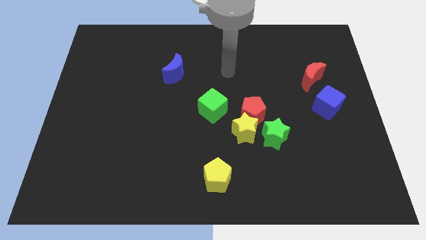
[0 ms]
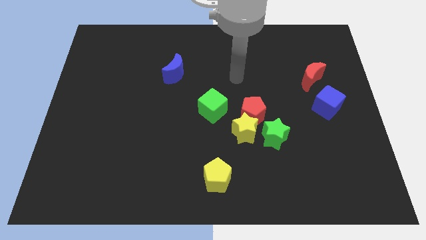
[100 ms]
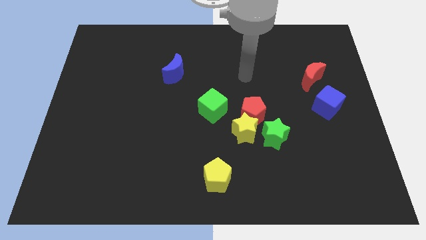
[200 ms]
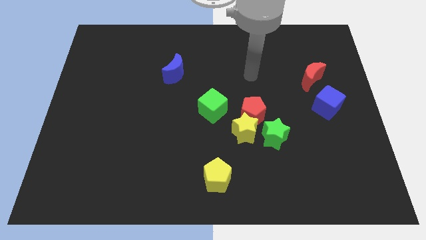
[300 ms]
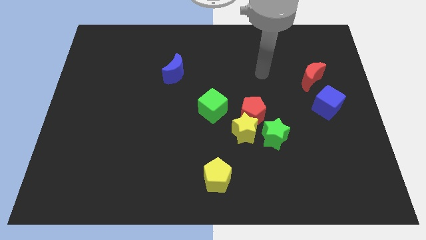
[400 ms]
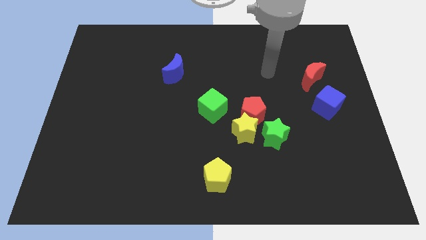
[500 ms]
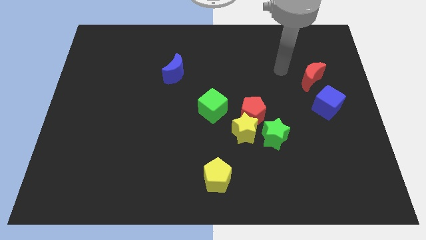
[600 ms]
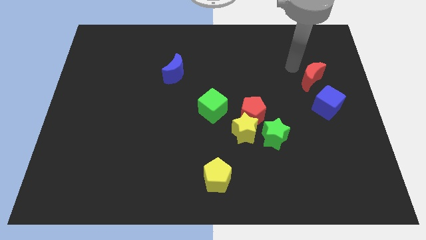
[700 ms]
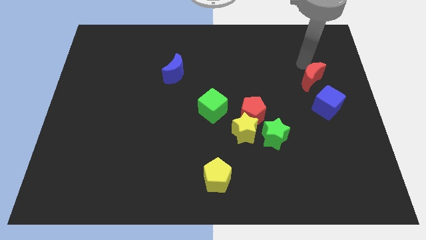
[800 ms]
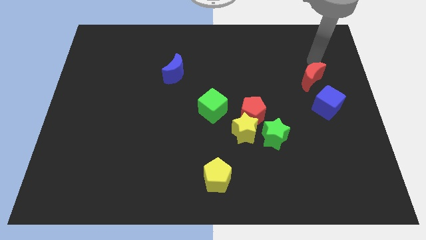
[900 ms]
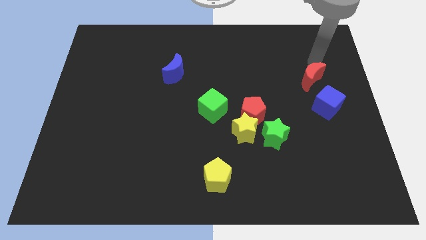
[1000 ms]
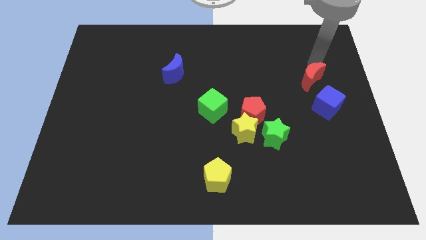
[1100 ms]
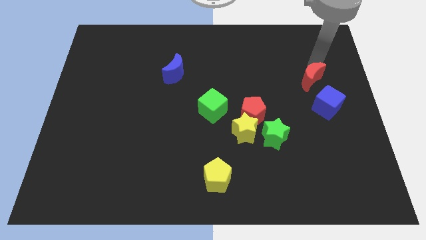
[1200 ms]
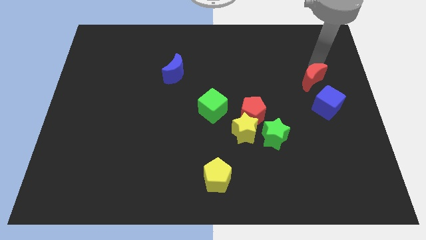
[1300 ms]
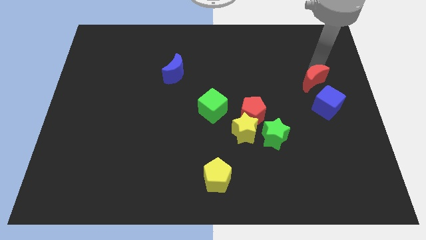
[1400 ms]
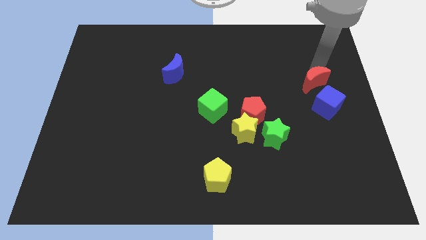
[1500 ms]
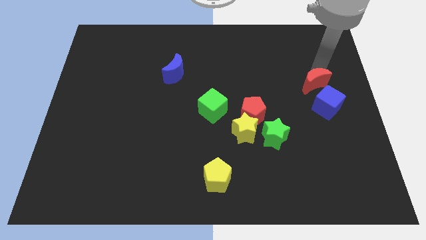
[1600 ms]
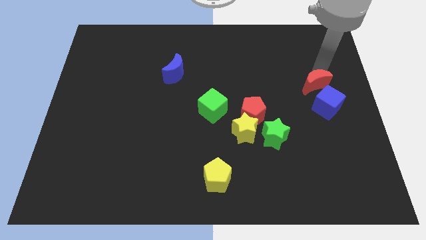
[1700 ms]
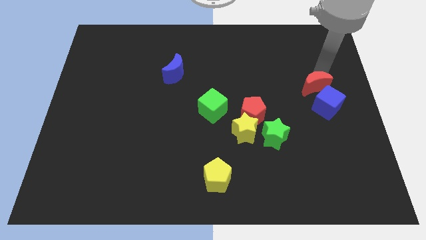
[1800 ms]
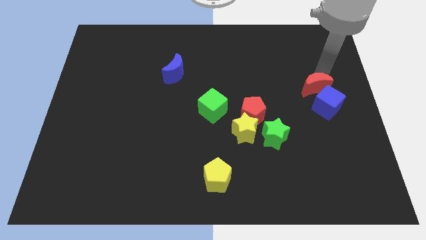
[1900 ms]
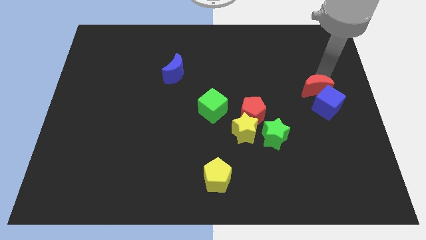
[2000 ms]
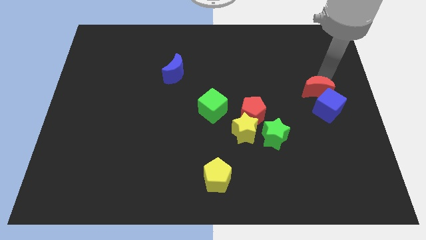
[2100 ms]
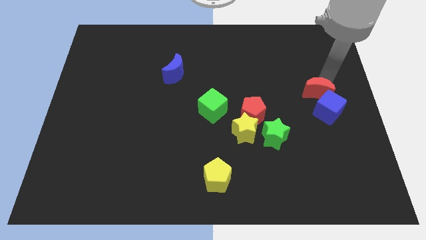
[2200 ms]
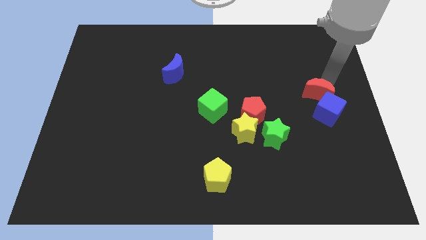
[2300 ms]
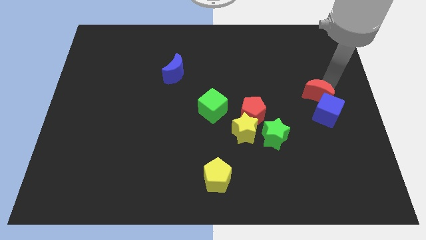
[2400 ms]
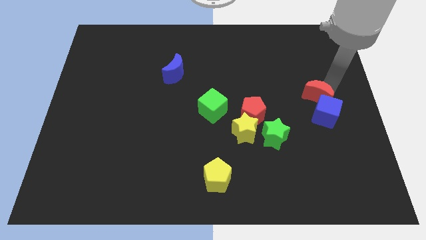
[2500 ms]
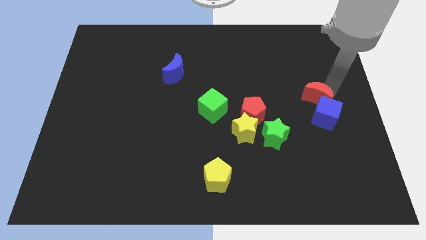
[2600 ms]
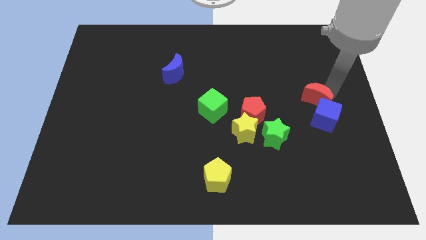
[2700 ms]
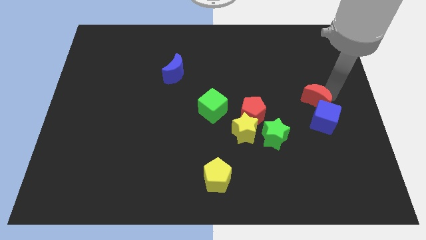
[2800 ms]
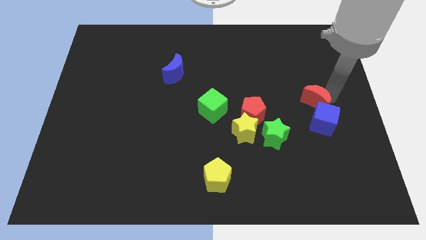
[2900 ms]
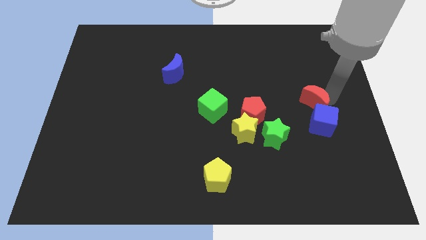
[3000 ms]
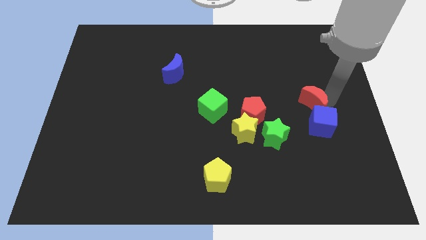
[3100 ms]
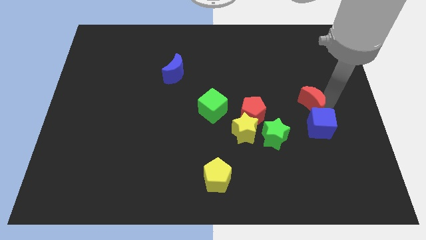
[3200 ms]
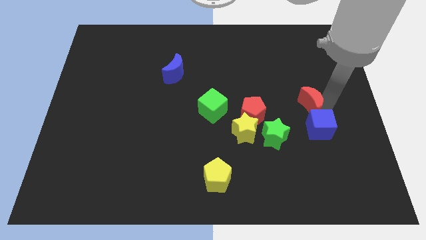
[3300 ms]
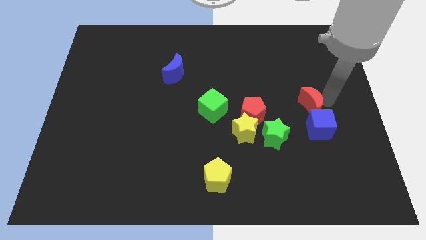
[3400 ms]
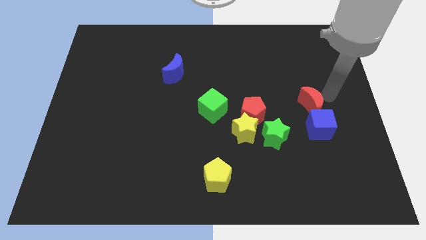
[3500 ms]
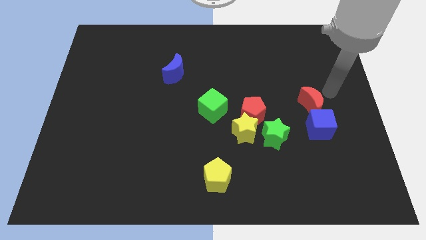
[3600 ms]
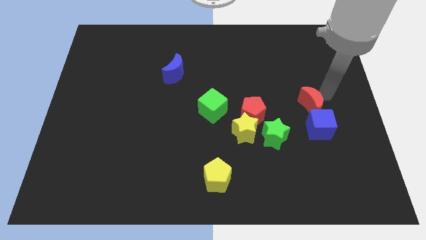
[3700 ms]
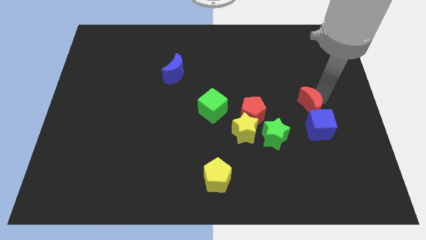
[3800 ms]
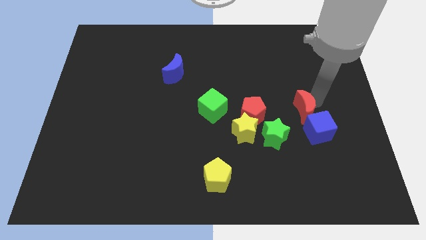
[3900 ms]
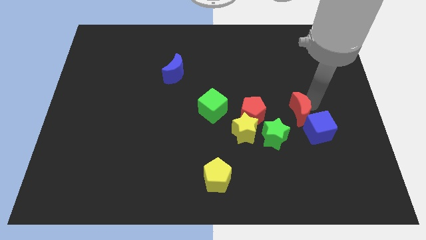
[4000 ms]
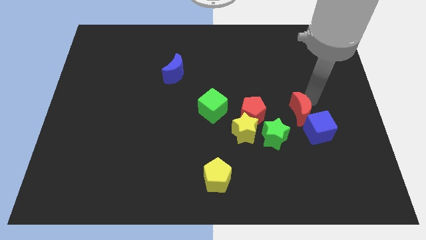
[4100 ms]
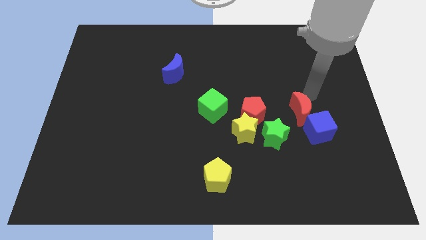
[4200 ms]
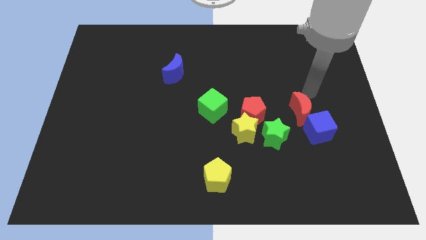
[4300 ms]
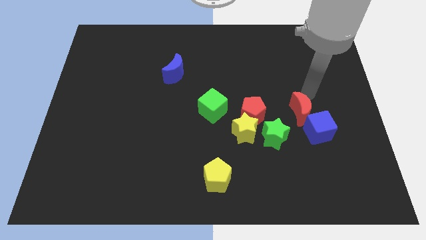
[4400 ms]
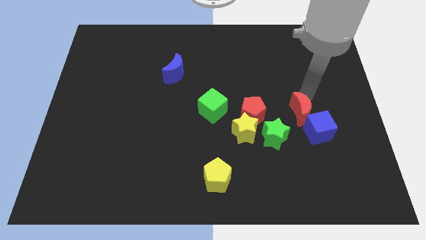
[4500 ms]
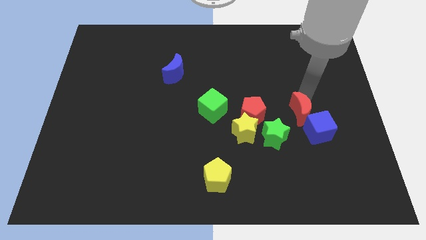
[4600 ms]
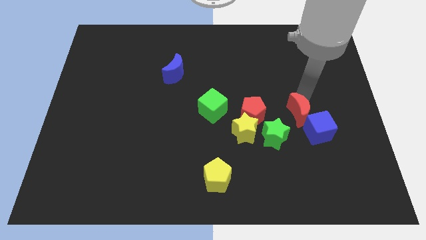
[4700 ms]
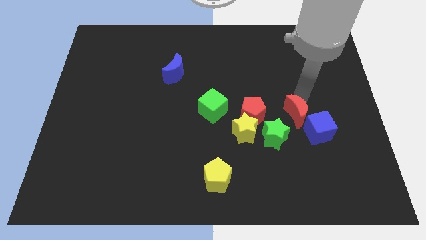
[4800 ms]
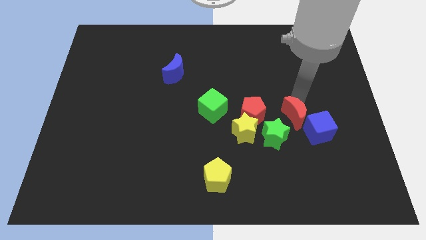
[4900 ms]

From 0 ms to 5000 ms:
move the red moon to the right side of the yellow star

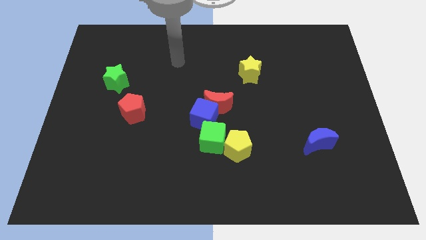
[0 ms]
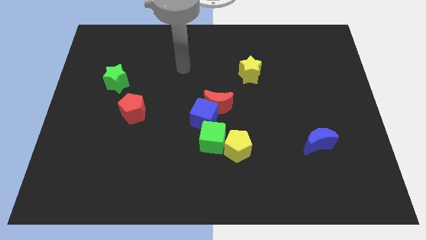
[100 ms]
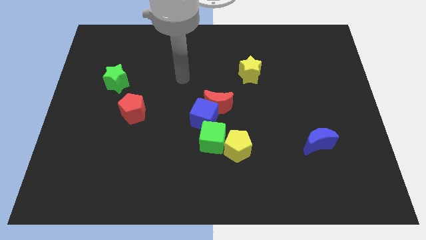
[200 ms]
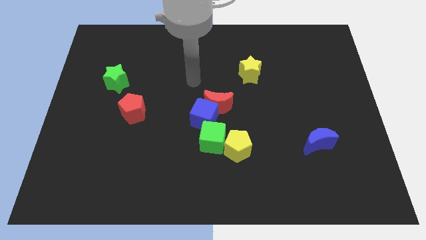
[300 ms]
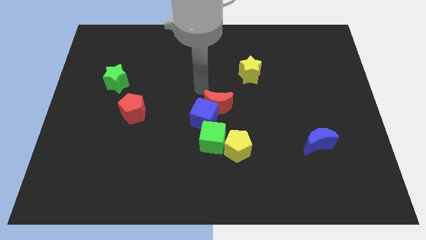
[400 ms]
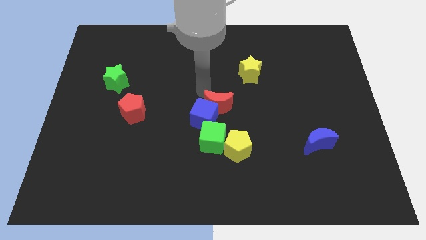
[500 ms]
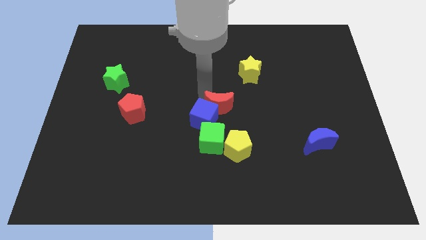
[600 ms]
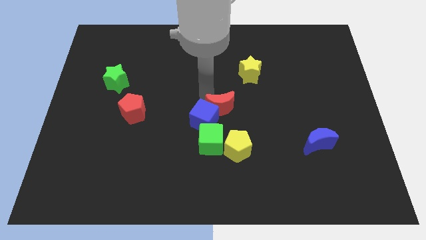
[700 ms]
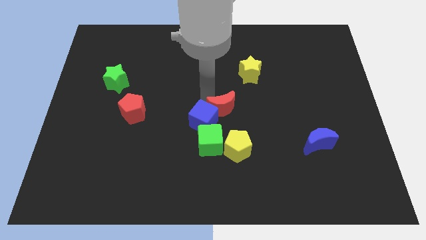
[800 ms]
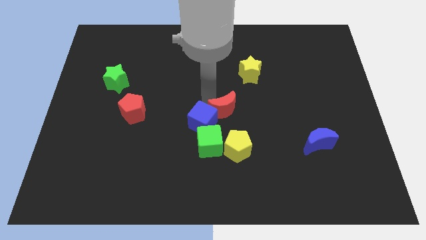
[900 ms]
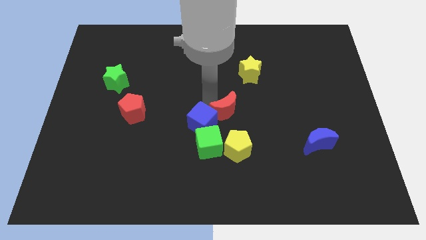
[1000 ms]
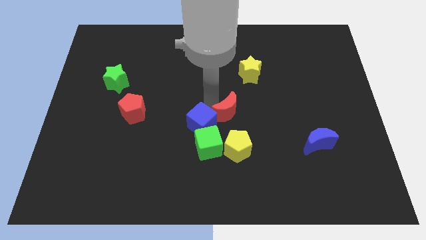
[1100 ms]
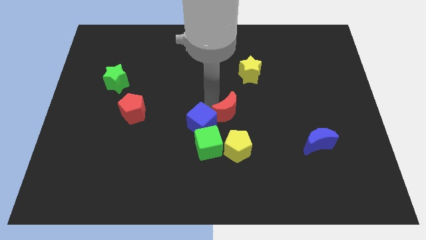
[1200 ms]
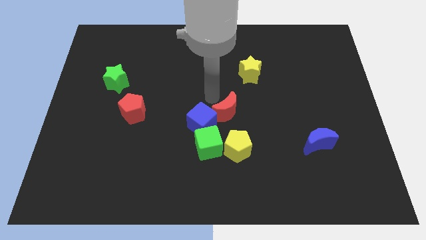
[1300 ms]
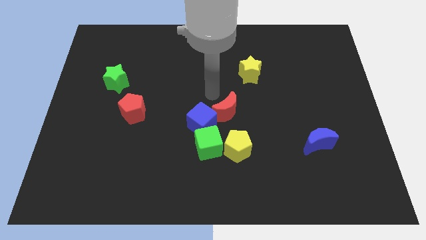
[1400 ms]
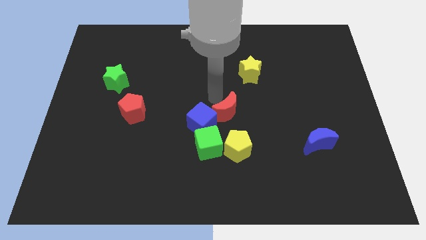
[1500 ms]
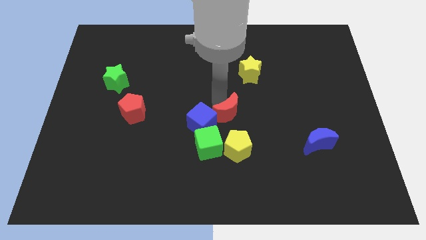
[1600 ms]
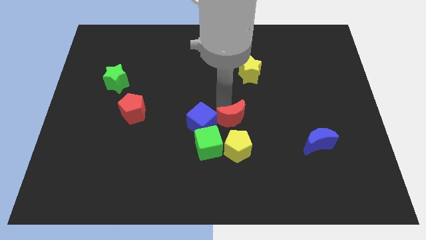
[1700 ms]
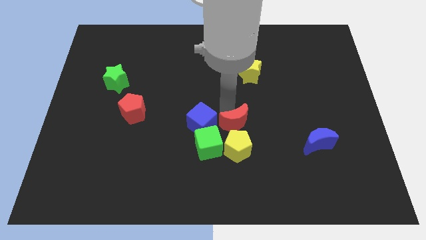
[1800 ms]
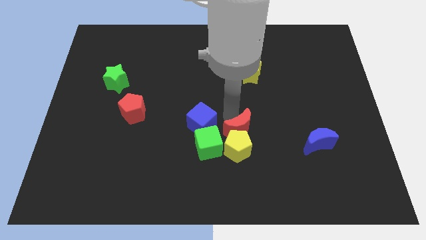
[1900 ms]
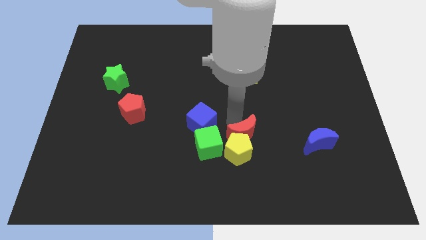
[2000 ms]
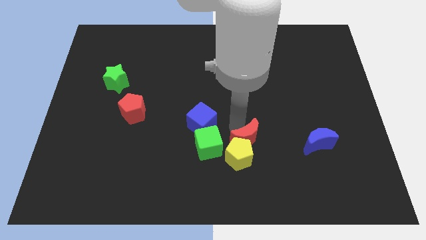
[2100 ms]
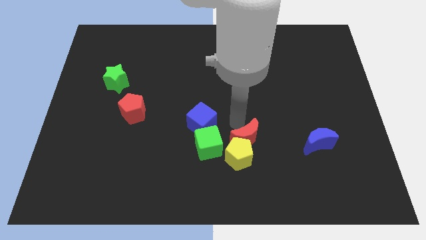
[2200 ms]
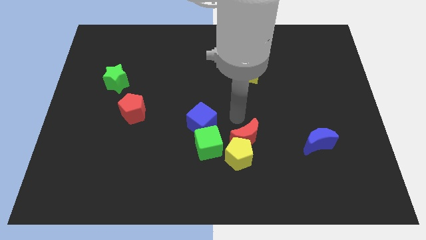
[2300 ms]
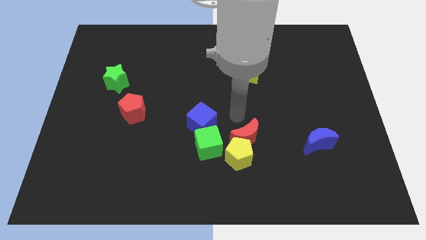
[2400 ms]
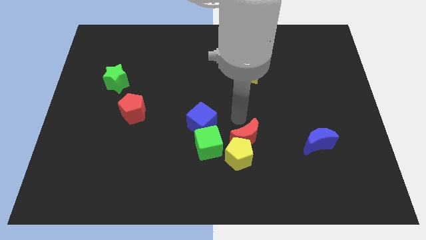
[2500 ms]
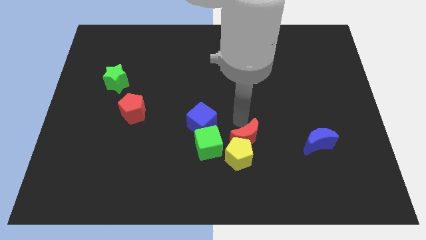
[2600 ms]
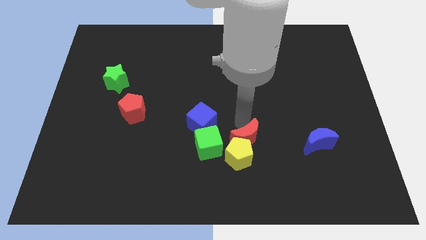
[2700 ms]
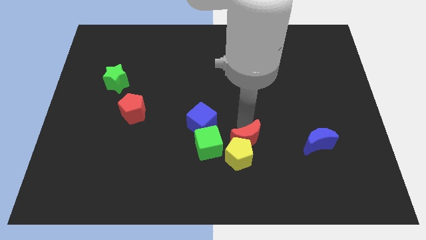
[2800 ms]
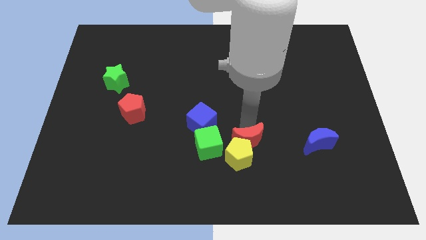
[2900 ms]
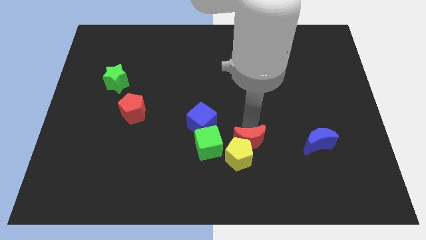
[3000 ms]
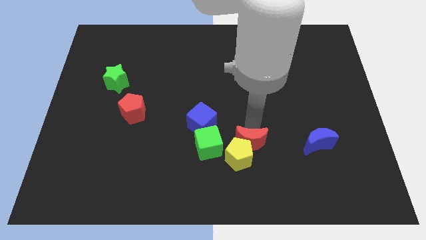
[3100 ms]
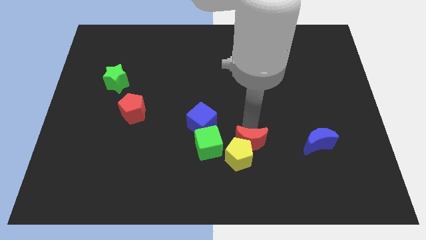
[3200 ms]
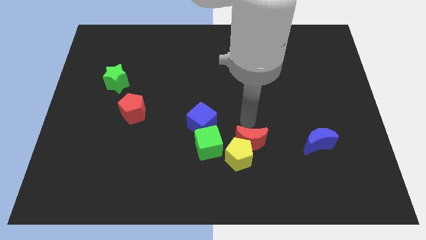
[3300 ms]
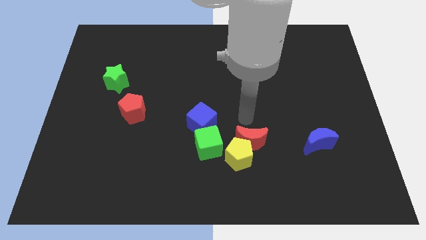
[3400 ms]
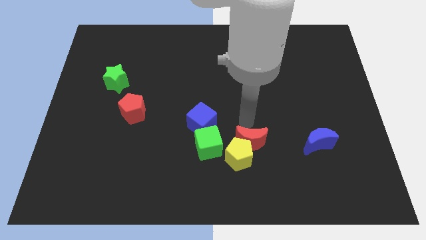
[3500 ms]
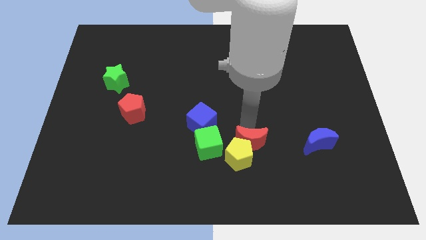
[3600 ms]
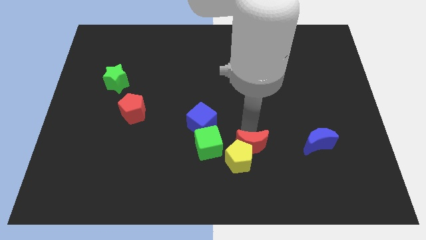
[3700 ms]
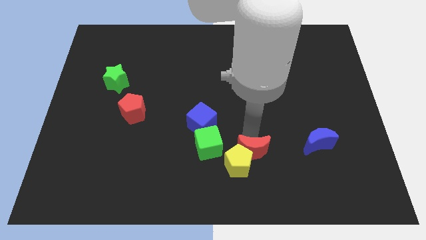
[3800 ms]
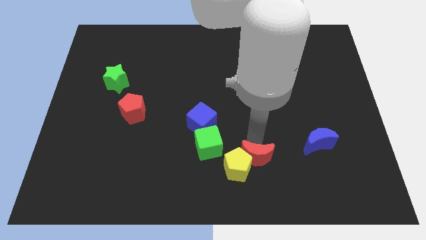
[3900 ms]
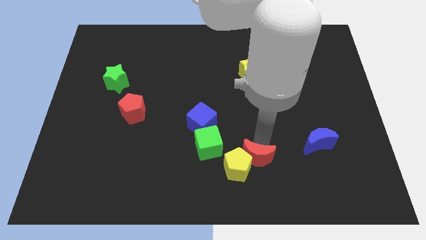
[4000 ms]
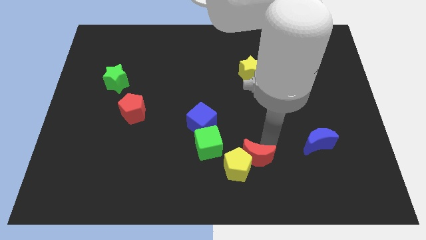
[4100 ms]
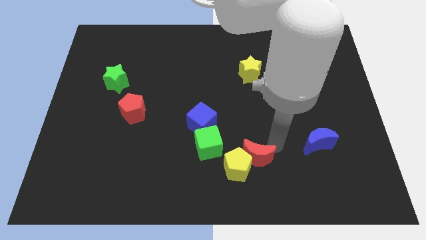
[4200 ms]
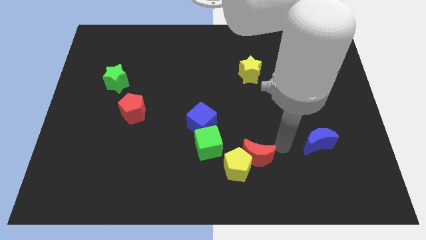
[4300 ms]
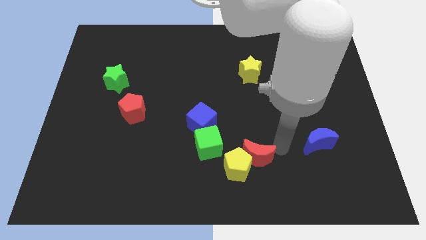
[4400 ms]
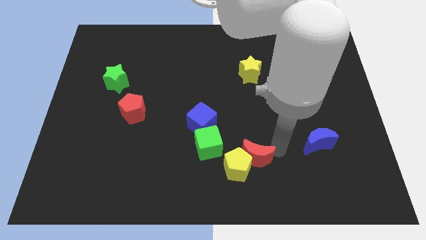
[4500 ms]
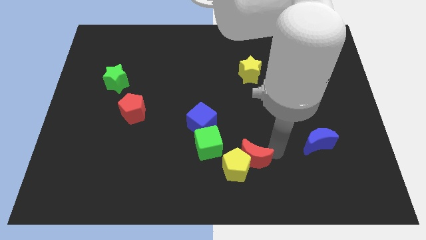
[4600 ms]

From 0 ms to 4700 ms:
push the red moon to the bottom right side of the green cube
